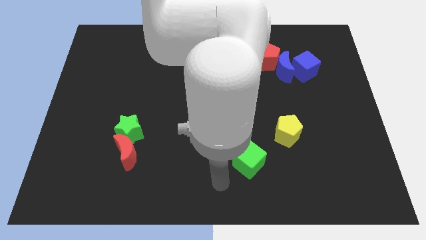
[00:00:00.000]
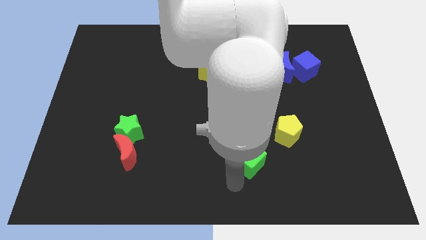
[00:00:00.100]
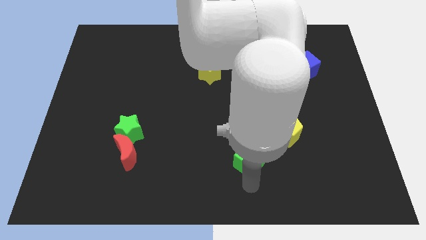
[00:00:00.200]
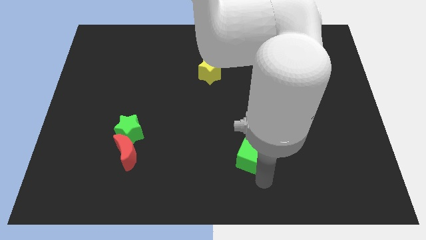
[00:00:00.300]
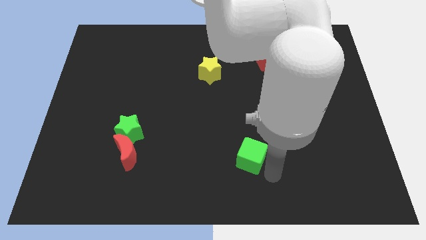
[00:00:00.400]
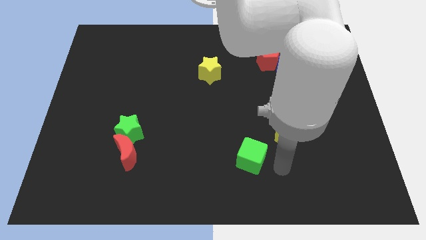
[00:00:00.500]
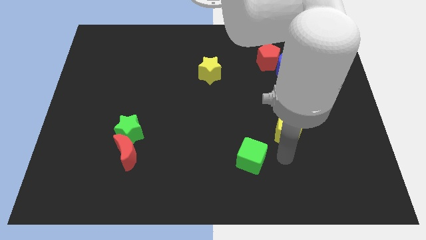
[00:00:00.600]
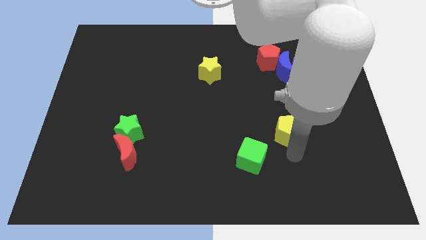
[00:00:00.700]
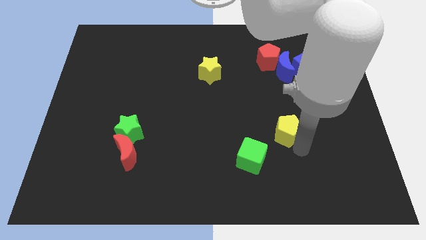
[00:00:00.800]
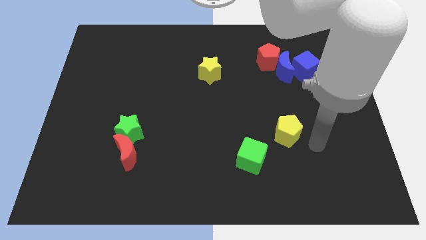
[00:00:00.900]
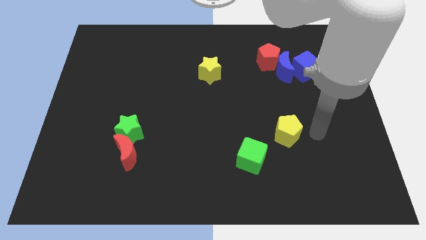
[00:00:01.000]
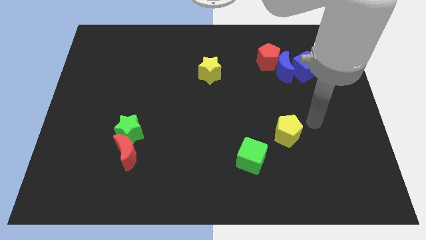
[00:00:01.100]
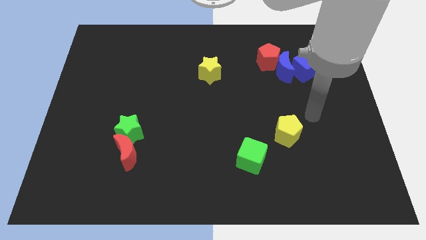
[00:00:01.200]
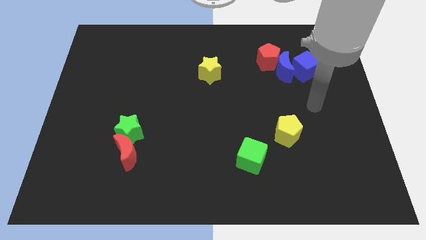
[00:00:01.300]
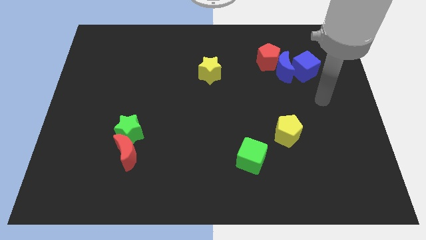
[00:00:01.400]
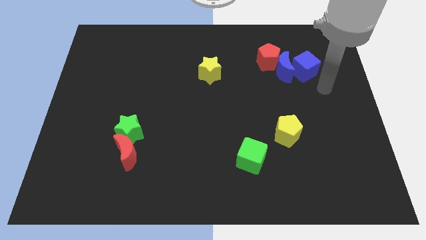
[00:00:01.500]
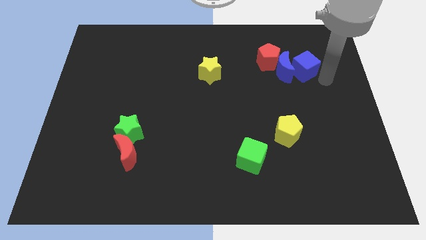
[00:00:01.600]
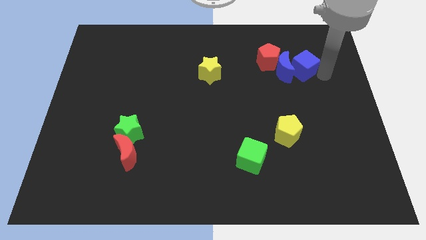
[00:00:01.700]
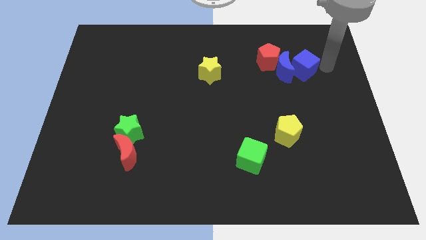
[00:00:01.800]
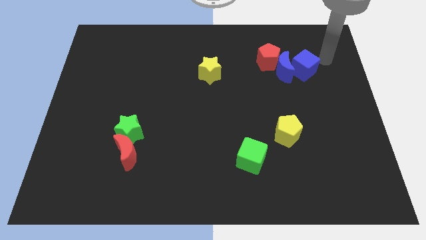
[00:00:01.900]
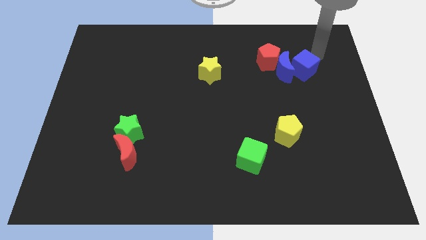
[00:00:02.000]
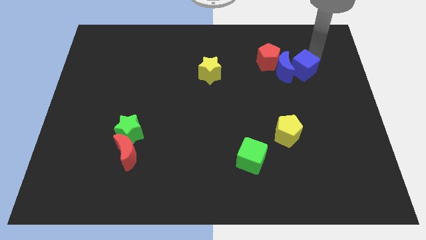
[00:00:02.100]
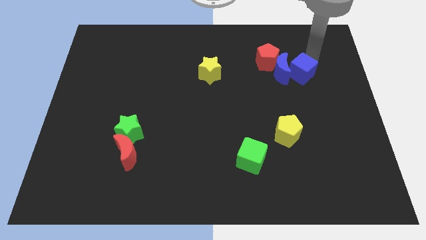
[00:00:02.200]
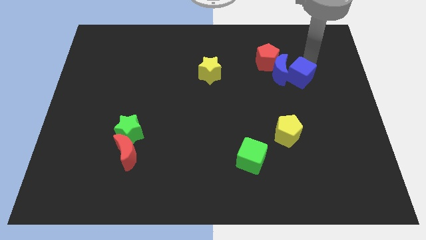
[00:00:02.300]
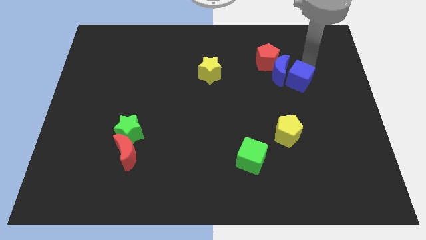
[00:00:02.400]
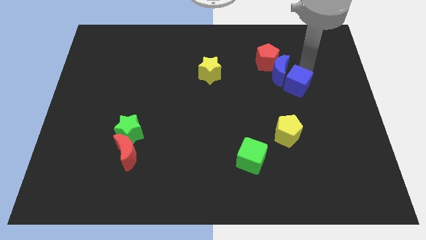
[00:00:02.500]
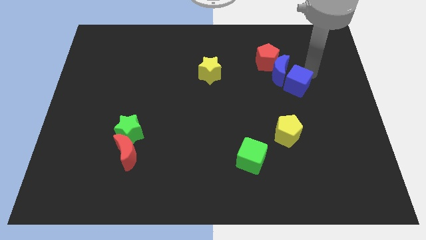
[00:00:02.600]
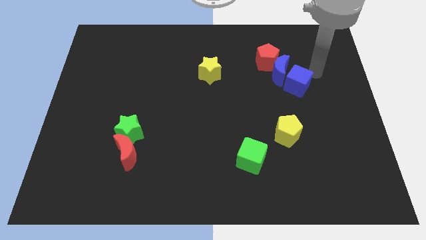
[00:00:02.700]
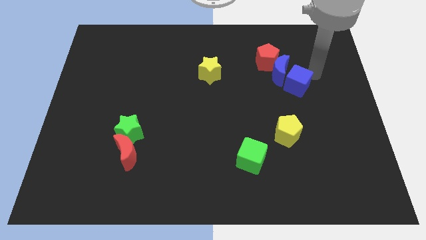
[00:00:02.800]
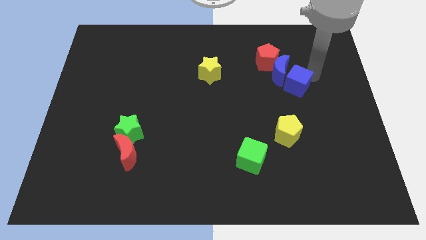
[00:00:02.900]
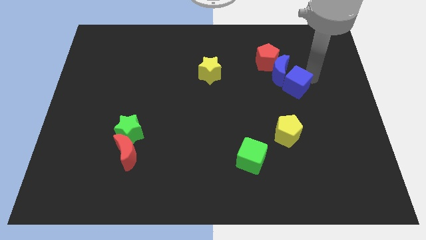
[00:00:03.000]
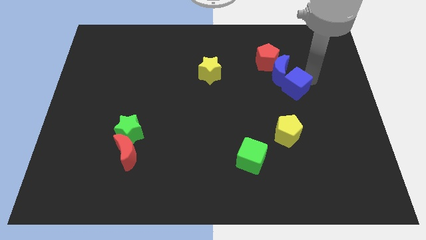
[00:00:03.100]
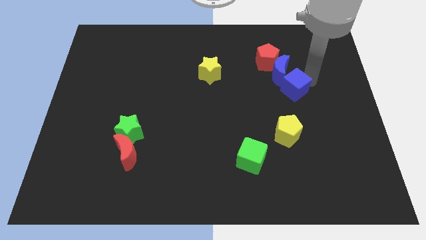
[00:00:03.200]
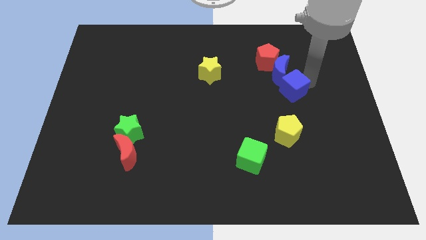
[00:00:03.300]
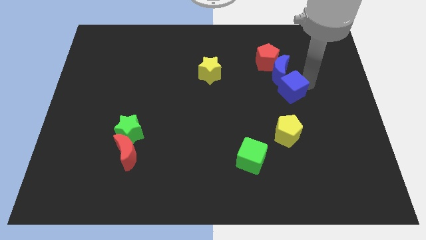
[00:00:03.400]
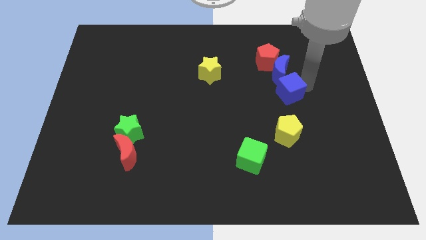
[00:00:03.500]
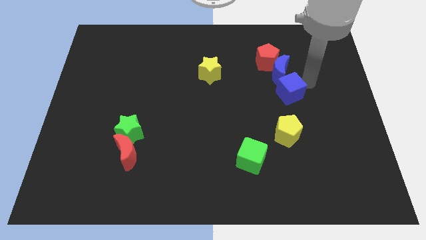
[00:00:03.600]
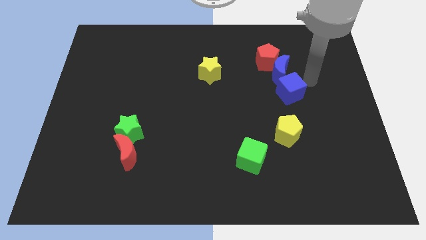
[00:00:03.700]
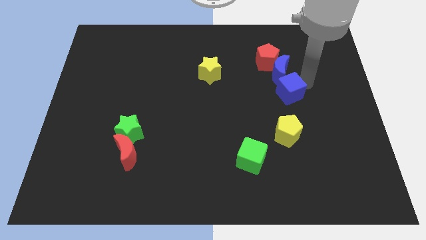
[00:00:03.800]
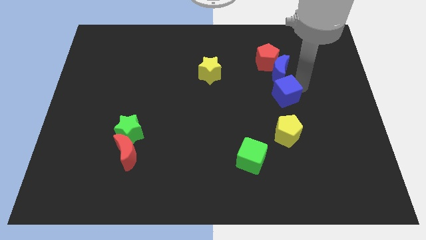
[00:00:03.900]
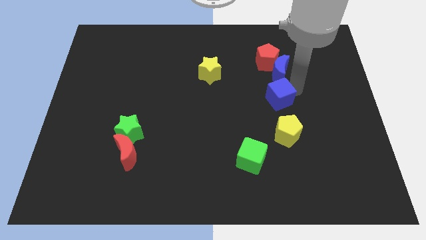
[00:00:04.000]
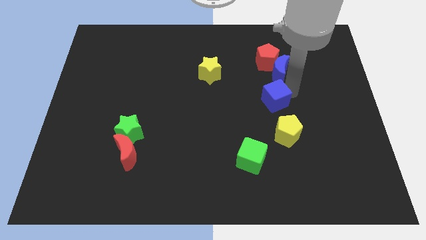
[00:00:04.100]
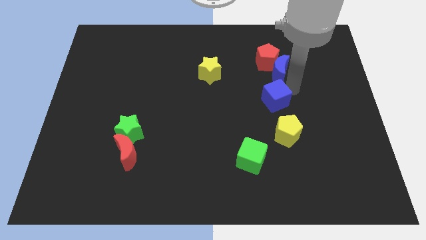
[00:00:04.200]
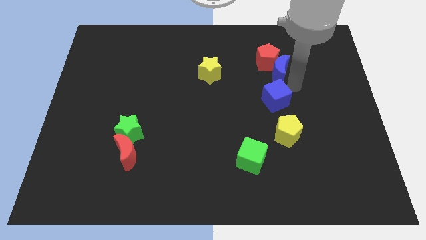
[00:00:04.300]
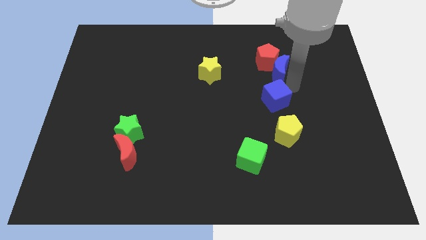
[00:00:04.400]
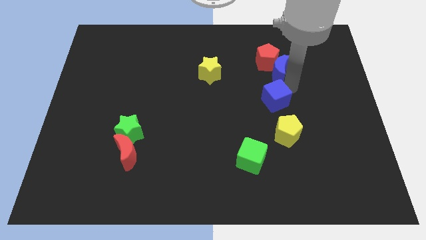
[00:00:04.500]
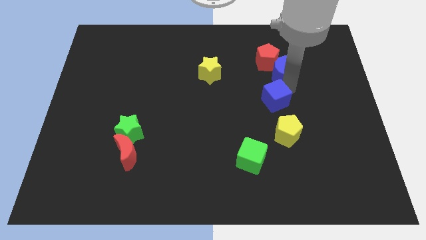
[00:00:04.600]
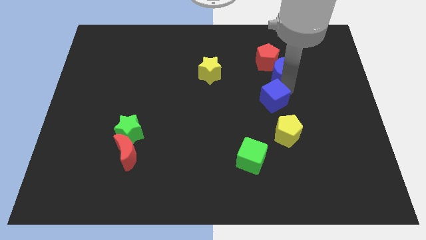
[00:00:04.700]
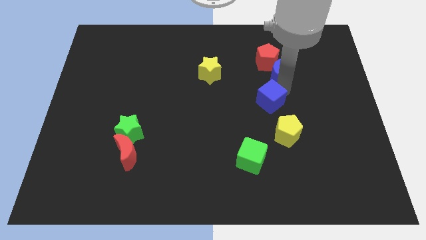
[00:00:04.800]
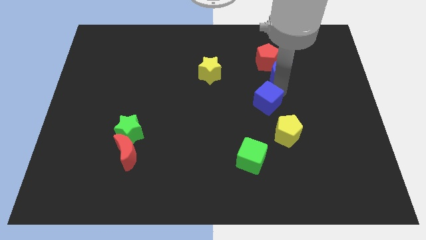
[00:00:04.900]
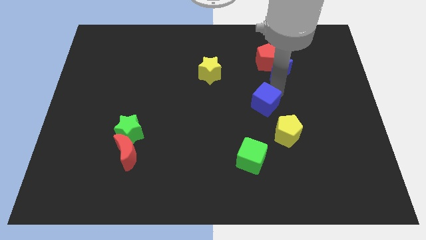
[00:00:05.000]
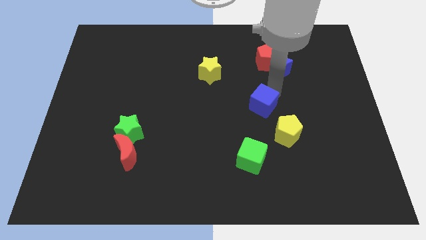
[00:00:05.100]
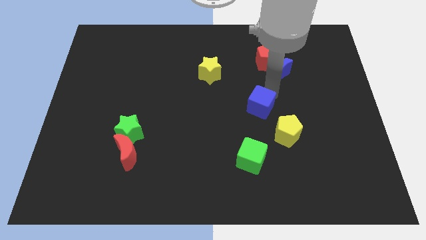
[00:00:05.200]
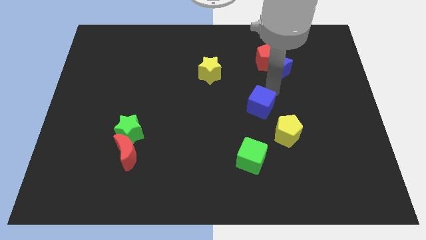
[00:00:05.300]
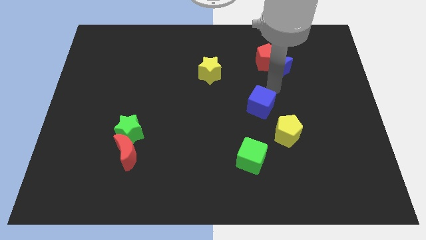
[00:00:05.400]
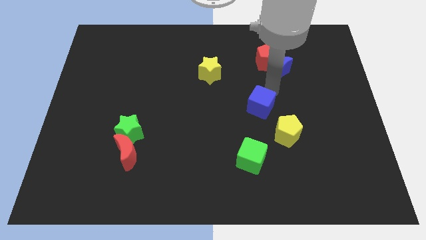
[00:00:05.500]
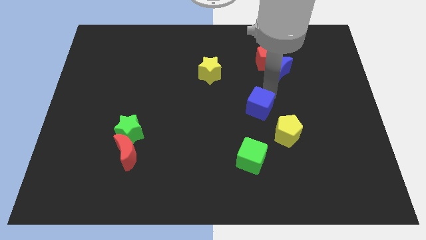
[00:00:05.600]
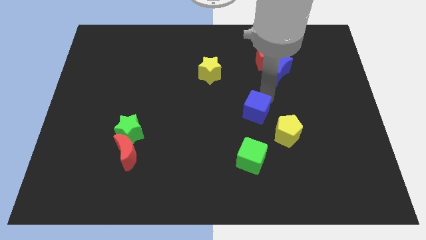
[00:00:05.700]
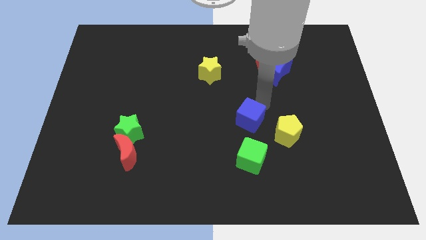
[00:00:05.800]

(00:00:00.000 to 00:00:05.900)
move the blue cube down and left

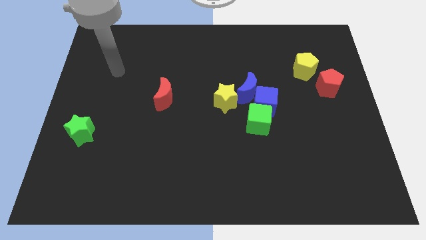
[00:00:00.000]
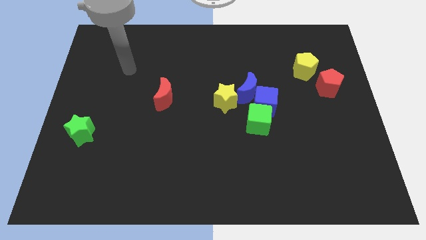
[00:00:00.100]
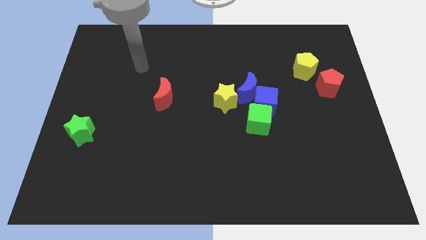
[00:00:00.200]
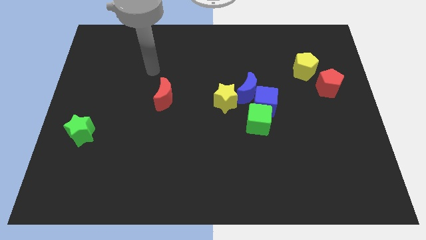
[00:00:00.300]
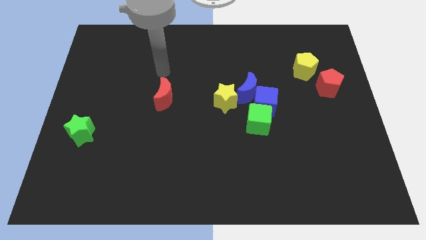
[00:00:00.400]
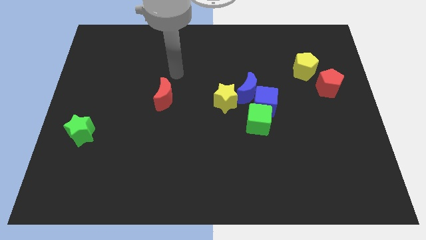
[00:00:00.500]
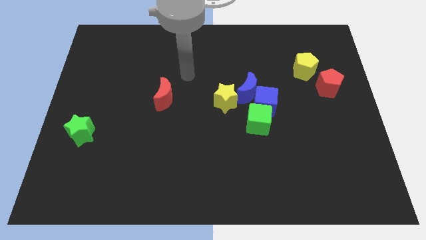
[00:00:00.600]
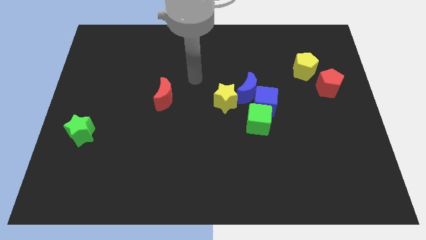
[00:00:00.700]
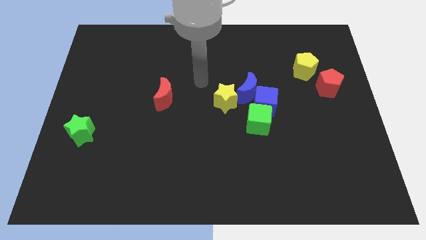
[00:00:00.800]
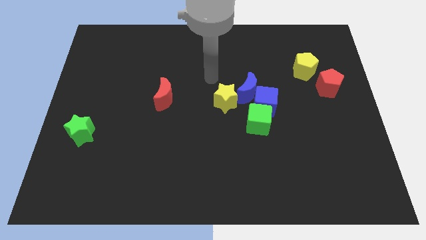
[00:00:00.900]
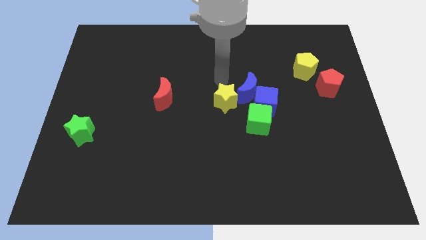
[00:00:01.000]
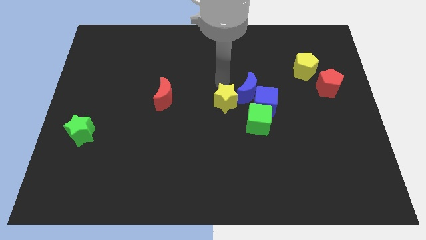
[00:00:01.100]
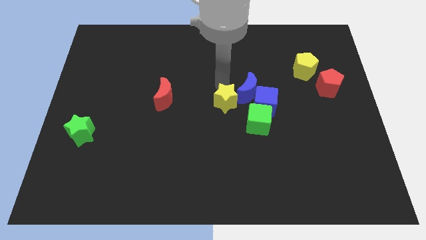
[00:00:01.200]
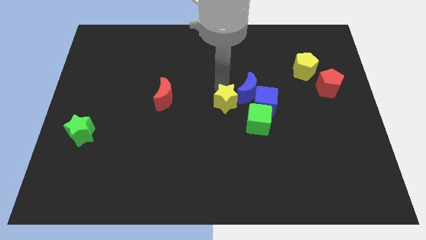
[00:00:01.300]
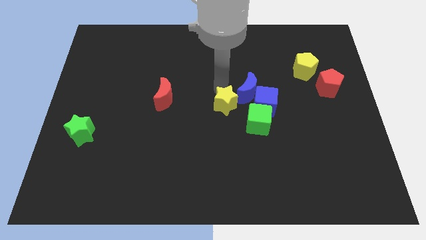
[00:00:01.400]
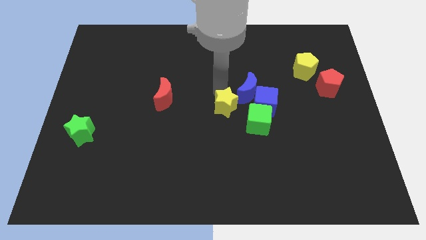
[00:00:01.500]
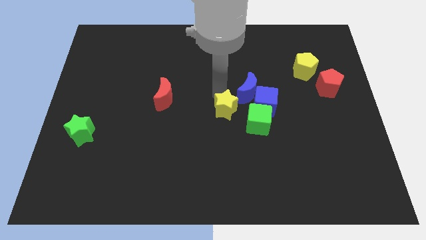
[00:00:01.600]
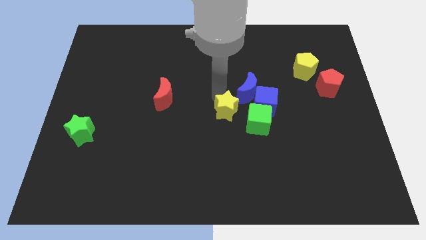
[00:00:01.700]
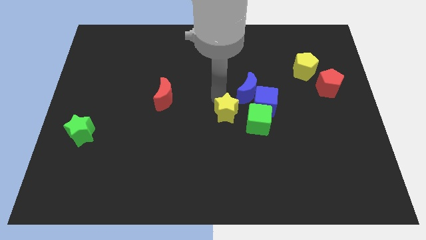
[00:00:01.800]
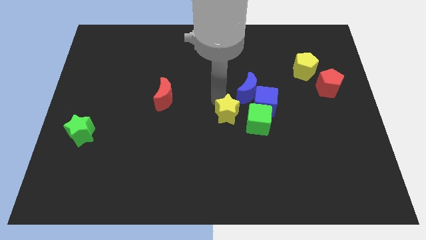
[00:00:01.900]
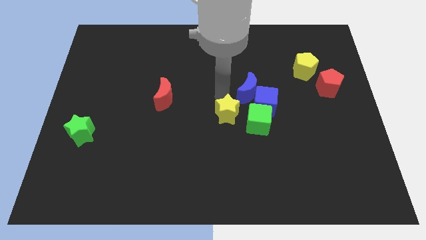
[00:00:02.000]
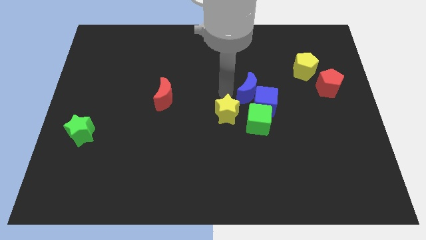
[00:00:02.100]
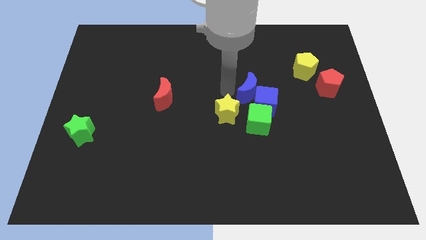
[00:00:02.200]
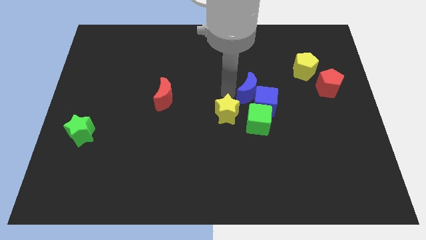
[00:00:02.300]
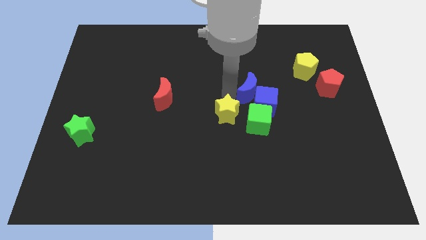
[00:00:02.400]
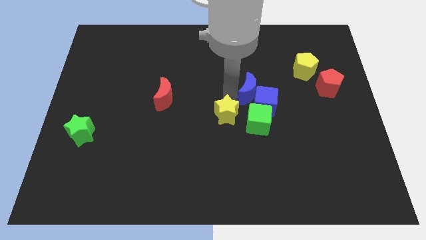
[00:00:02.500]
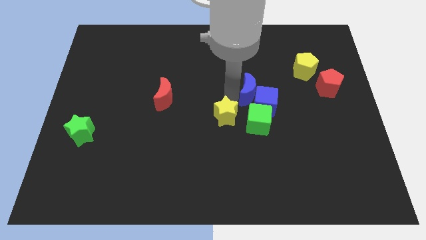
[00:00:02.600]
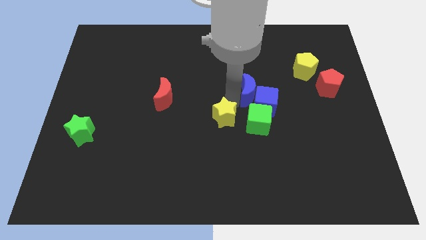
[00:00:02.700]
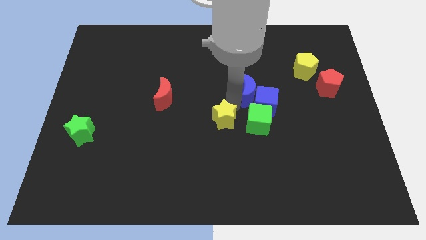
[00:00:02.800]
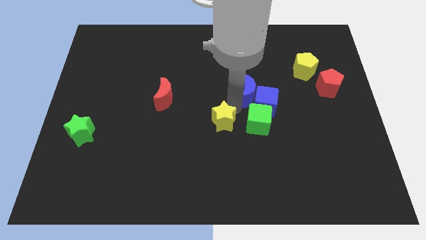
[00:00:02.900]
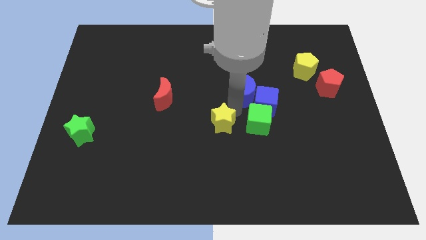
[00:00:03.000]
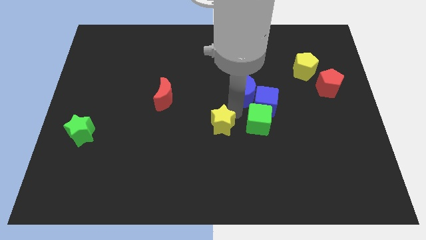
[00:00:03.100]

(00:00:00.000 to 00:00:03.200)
slide the yellow star a little bit down
